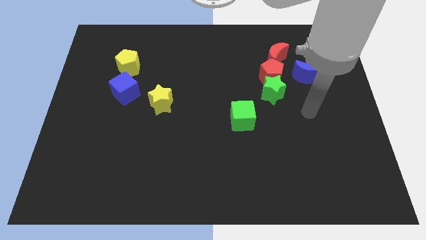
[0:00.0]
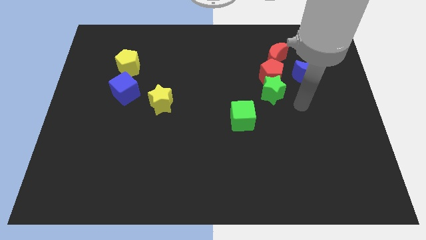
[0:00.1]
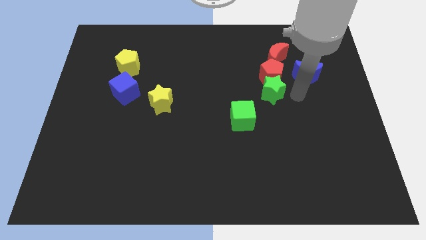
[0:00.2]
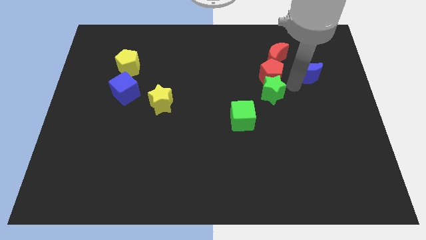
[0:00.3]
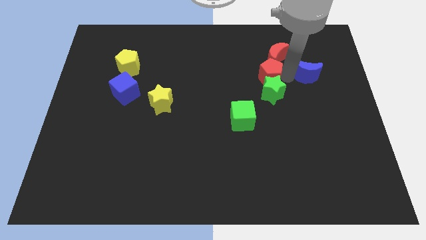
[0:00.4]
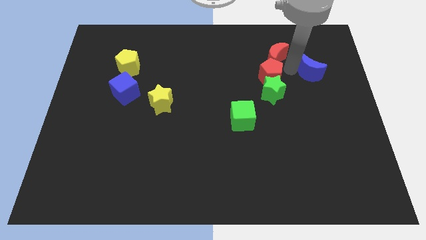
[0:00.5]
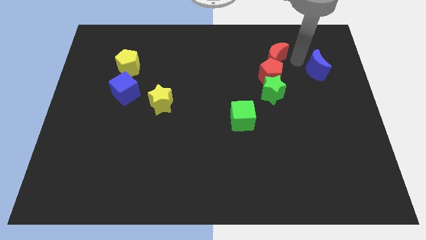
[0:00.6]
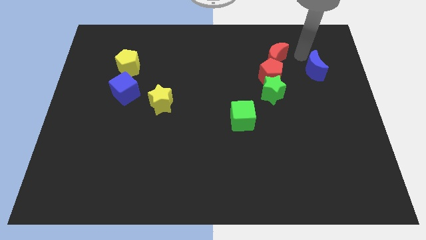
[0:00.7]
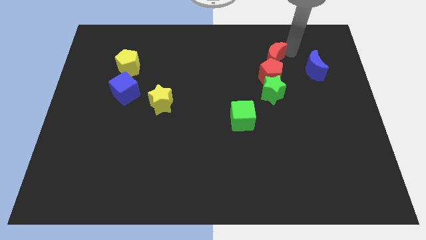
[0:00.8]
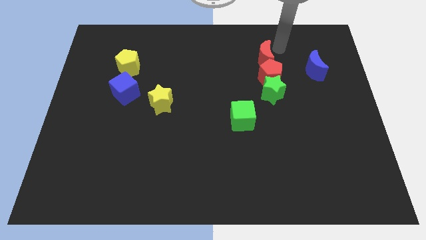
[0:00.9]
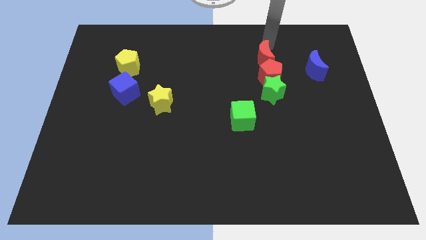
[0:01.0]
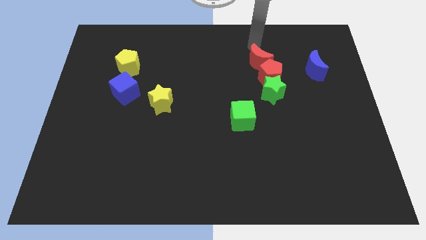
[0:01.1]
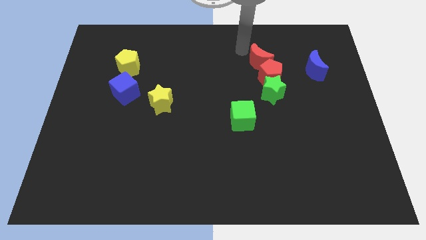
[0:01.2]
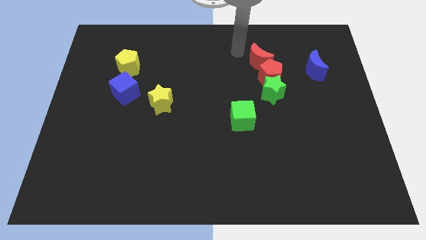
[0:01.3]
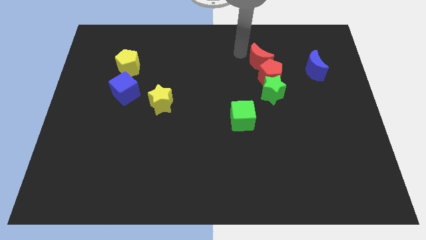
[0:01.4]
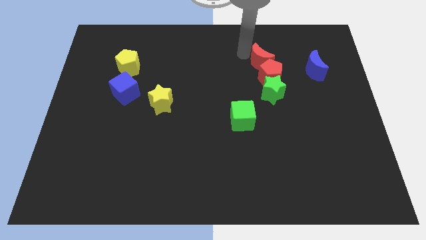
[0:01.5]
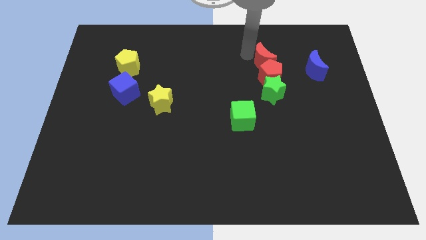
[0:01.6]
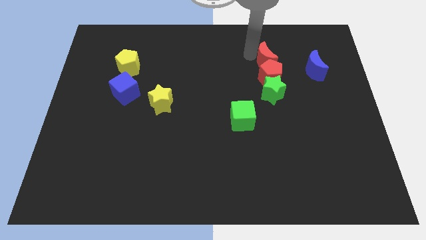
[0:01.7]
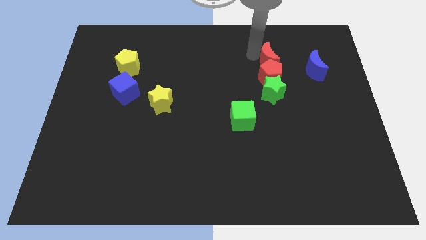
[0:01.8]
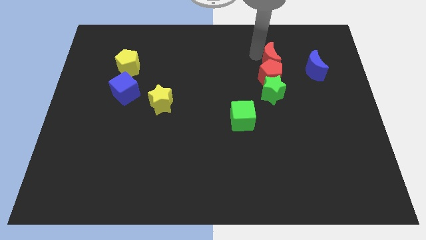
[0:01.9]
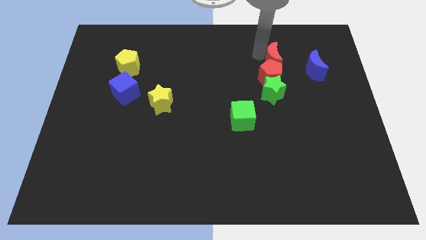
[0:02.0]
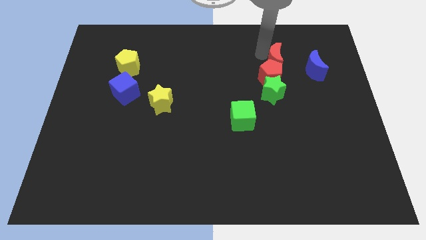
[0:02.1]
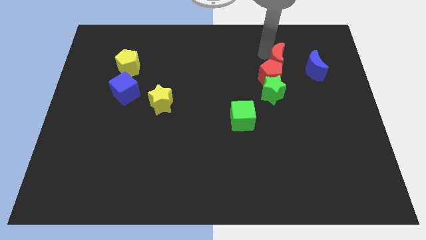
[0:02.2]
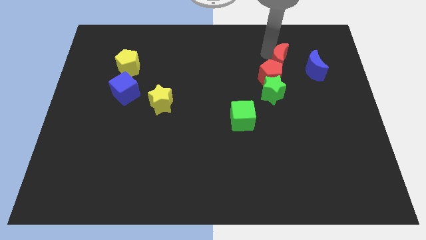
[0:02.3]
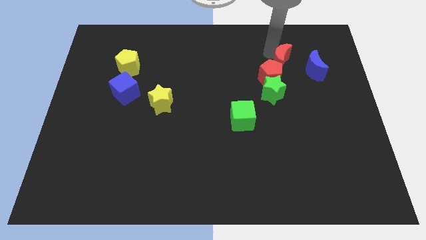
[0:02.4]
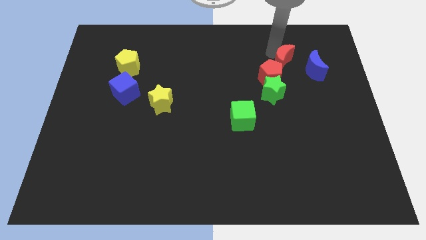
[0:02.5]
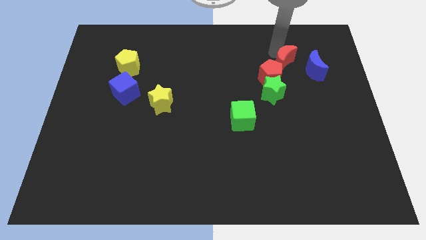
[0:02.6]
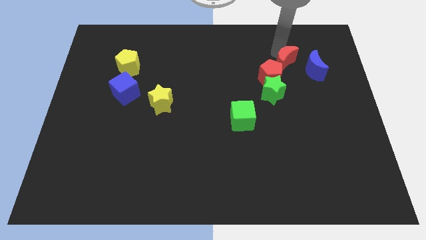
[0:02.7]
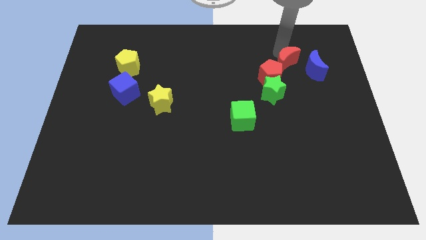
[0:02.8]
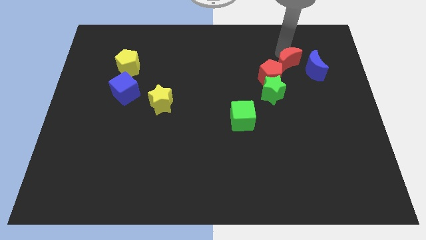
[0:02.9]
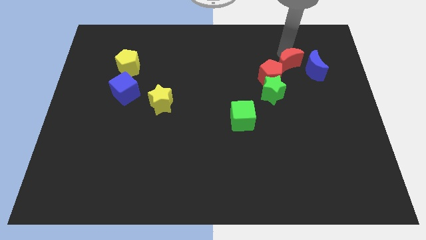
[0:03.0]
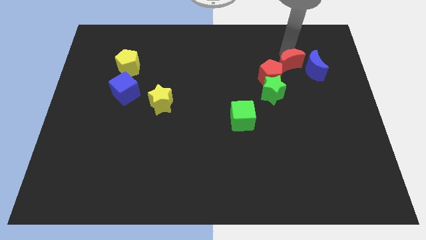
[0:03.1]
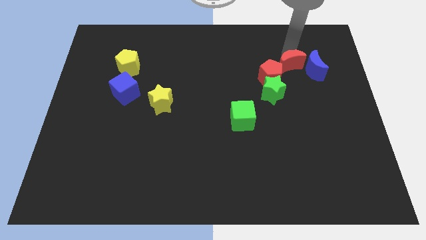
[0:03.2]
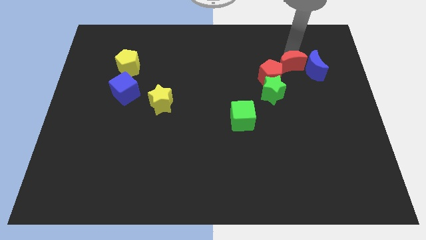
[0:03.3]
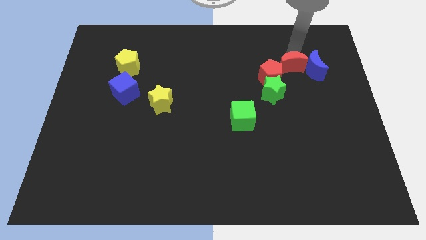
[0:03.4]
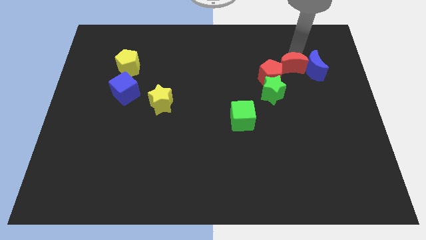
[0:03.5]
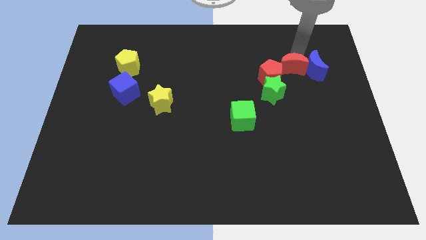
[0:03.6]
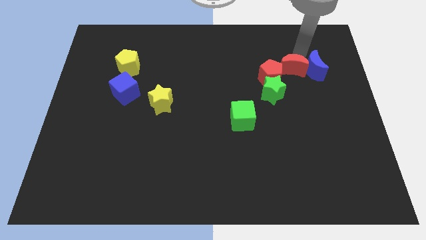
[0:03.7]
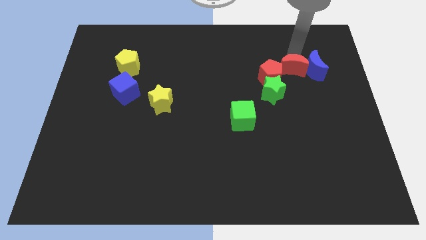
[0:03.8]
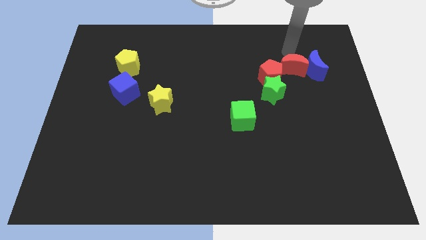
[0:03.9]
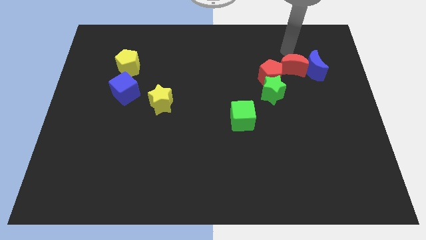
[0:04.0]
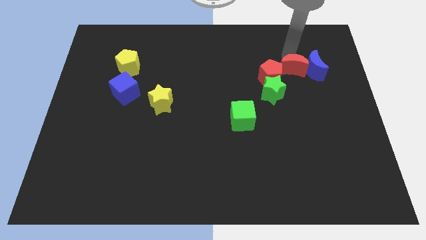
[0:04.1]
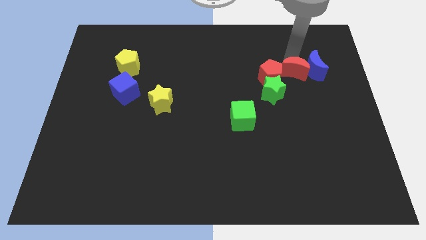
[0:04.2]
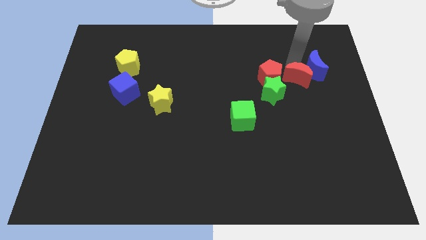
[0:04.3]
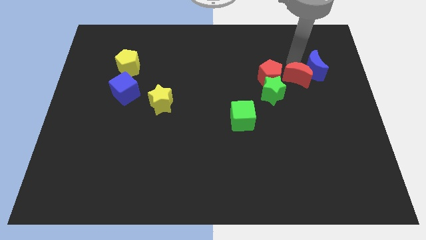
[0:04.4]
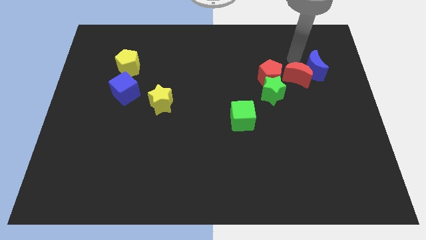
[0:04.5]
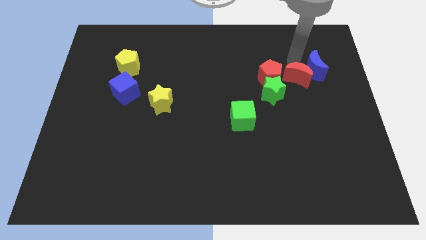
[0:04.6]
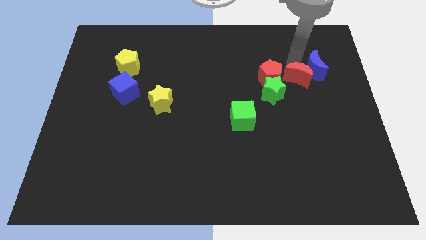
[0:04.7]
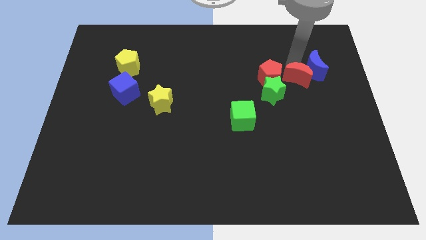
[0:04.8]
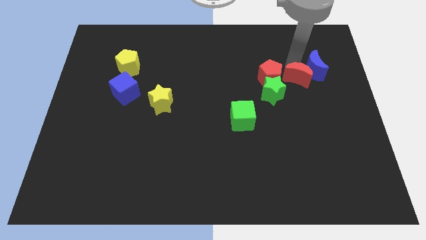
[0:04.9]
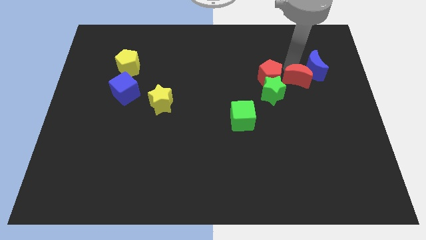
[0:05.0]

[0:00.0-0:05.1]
move the red moon below the blue moon

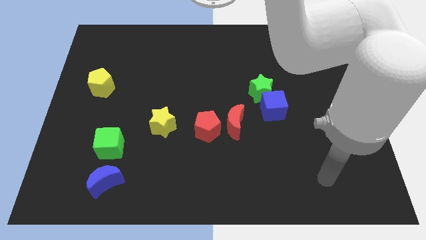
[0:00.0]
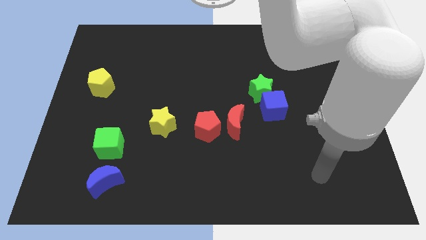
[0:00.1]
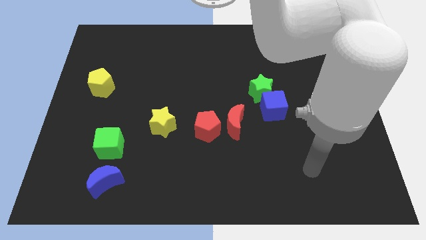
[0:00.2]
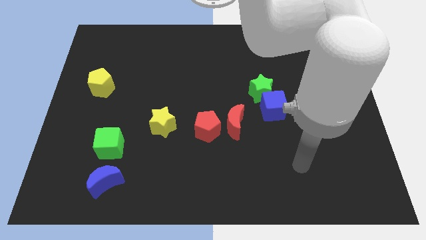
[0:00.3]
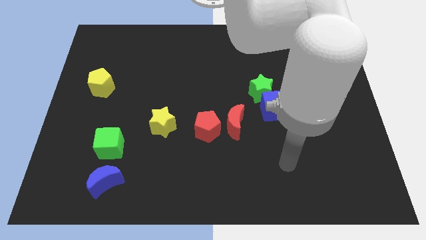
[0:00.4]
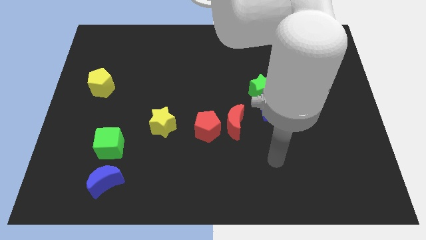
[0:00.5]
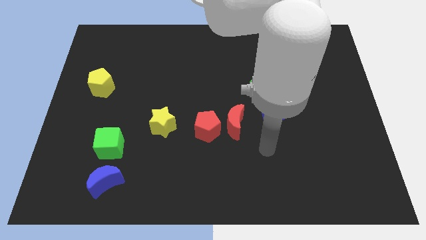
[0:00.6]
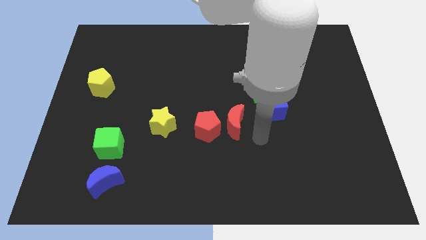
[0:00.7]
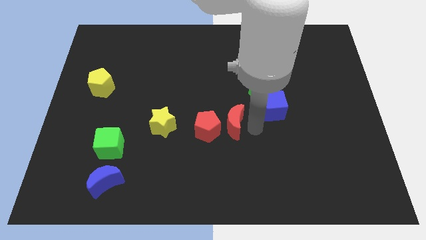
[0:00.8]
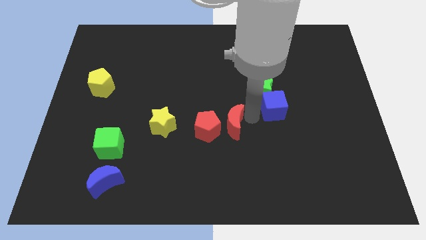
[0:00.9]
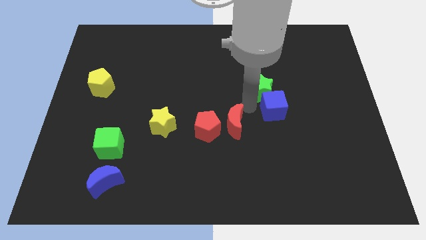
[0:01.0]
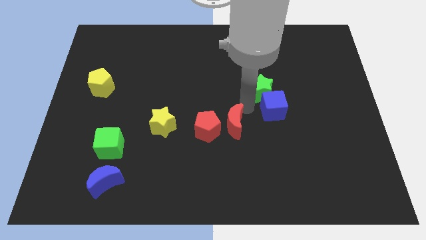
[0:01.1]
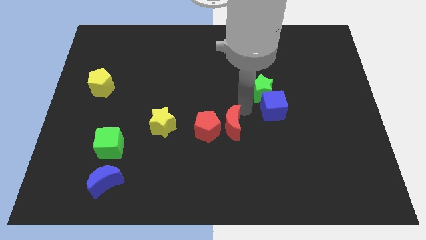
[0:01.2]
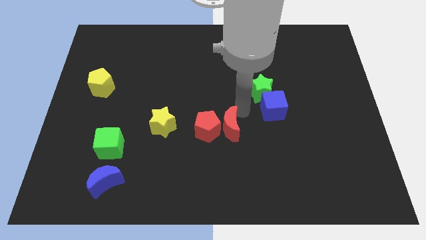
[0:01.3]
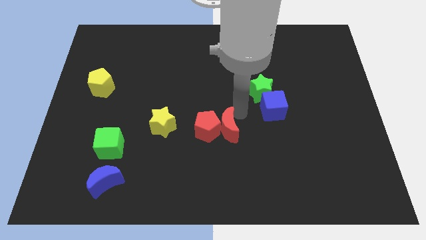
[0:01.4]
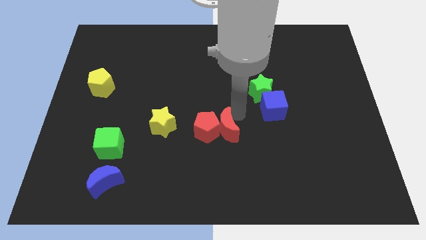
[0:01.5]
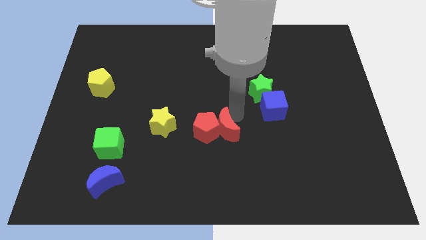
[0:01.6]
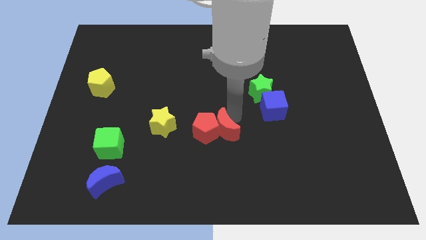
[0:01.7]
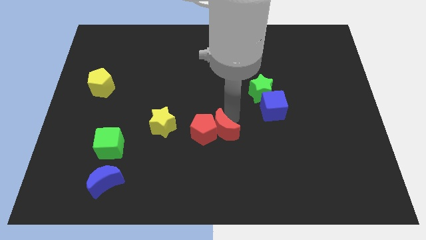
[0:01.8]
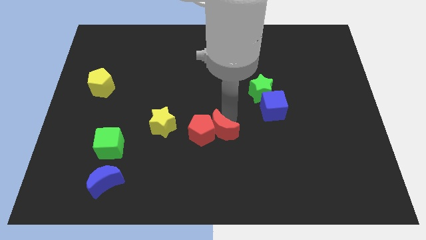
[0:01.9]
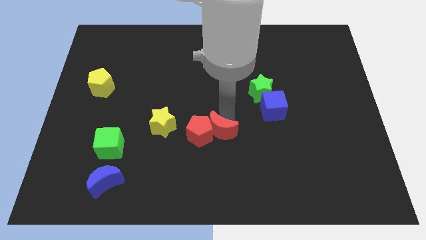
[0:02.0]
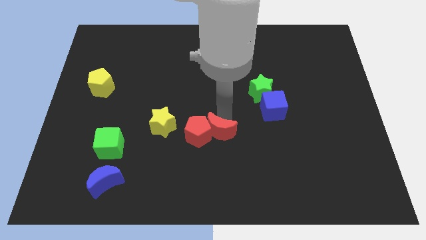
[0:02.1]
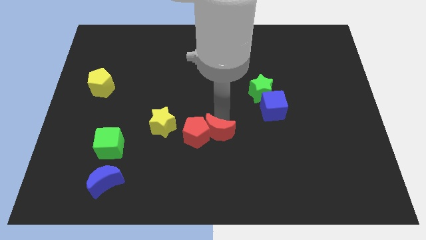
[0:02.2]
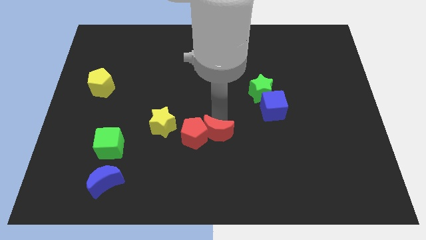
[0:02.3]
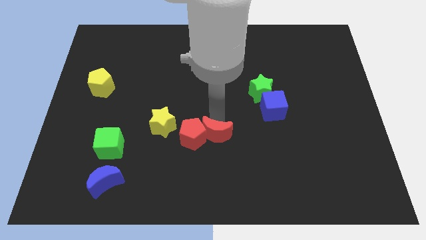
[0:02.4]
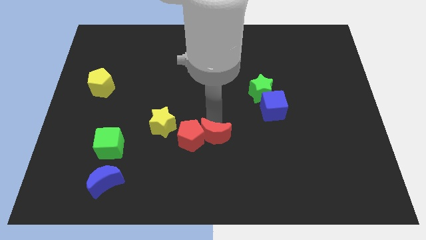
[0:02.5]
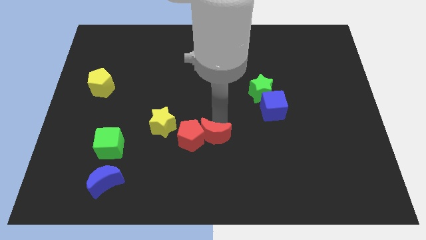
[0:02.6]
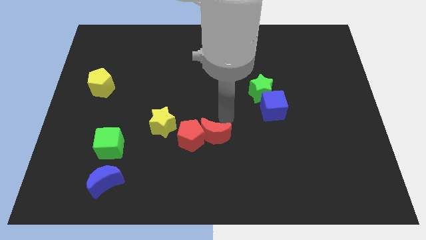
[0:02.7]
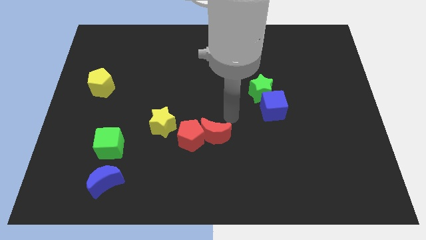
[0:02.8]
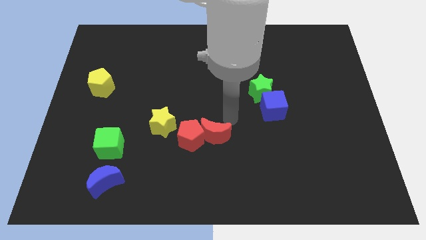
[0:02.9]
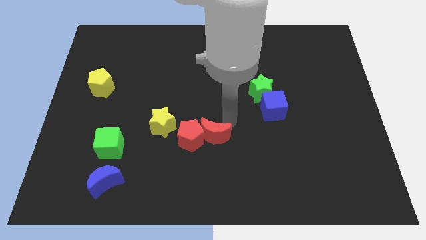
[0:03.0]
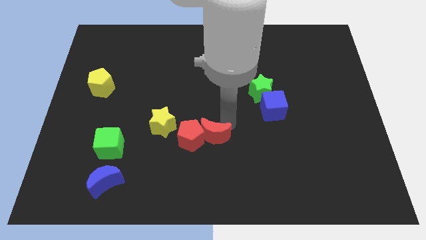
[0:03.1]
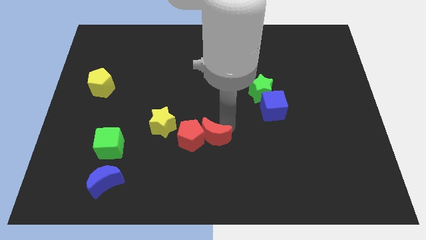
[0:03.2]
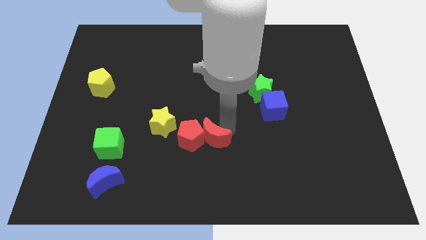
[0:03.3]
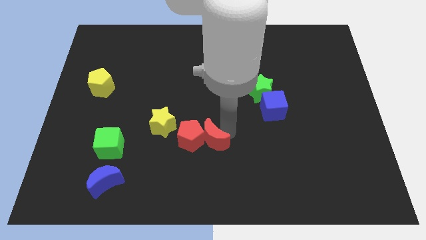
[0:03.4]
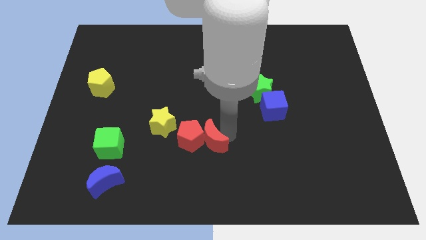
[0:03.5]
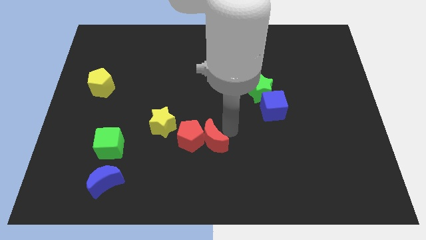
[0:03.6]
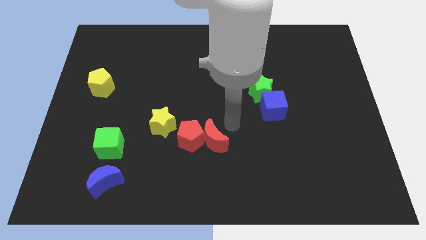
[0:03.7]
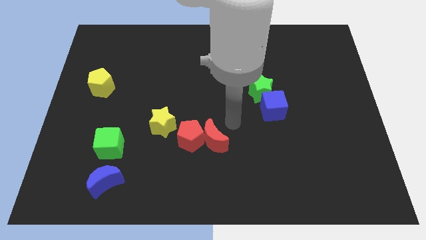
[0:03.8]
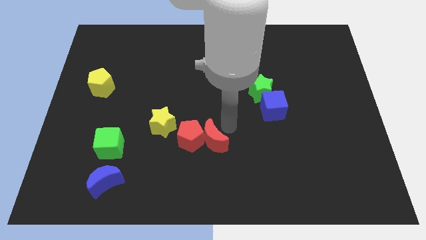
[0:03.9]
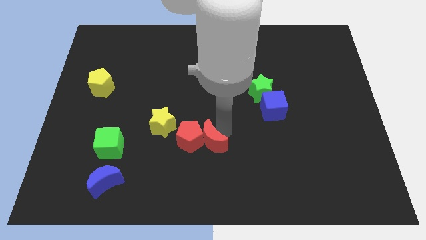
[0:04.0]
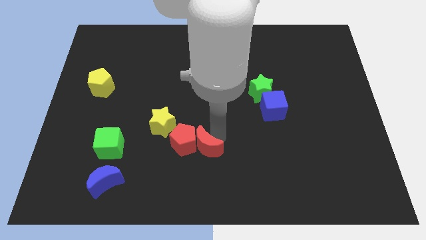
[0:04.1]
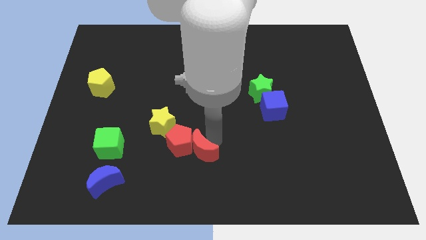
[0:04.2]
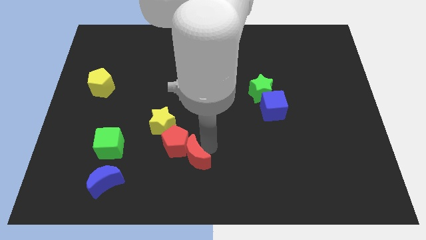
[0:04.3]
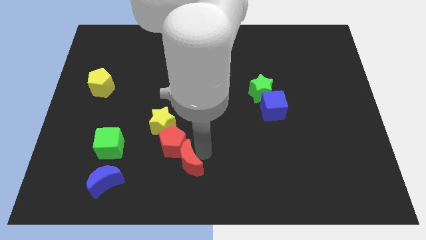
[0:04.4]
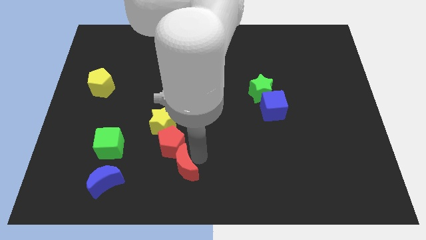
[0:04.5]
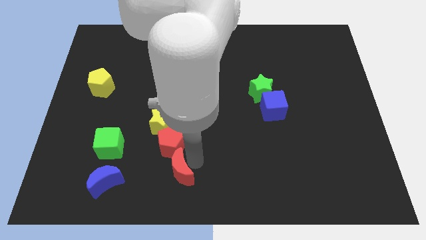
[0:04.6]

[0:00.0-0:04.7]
slide the red moon to the right side of the blue moon
